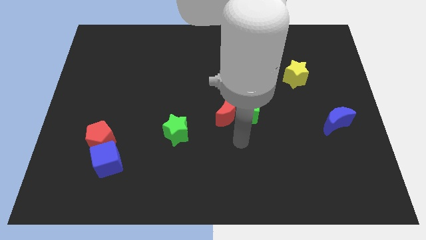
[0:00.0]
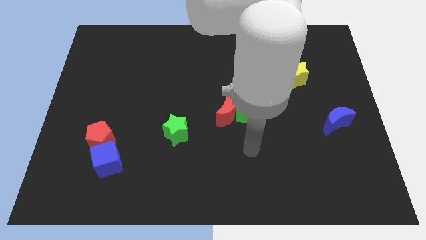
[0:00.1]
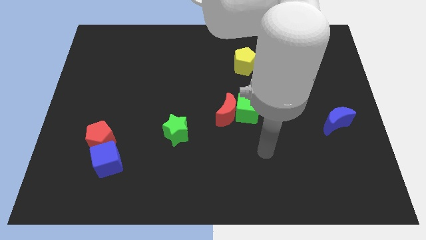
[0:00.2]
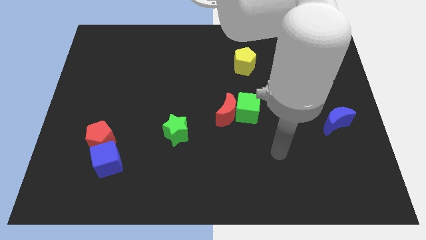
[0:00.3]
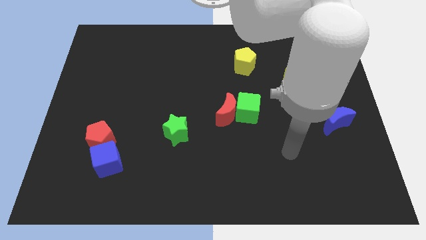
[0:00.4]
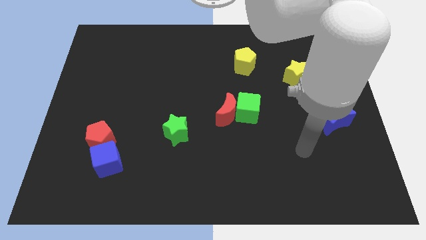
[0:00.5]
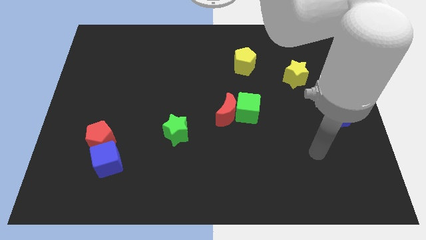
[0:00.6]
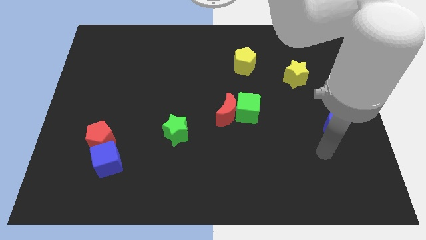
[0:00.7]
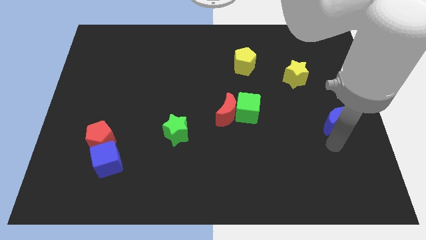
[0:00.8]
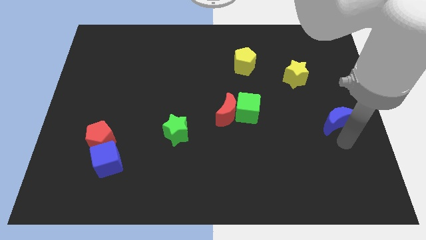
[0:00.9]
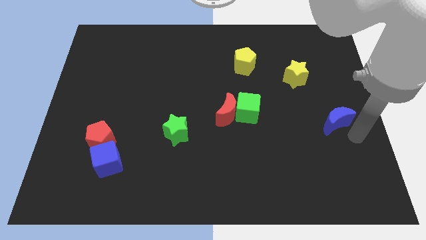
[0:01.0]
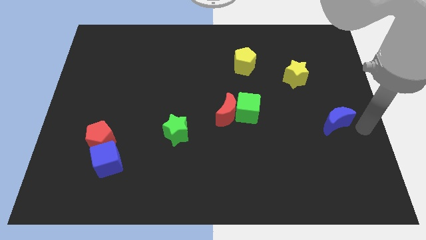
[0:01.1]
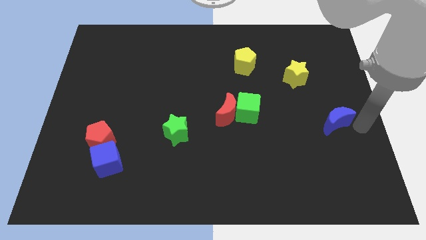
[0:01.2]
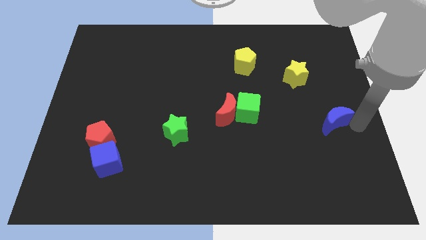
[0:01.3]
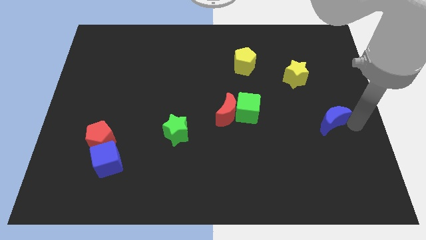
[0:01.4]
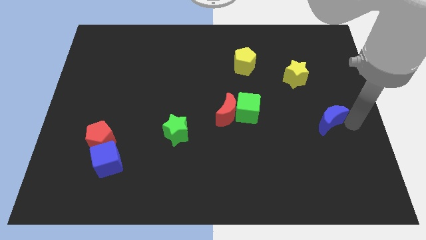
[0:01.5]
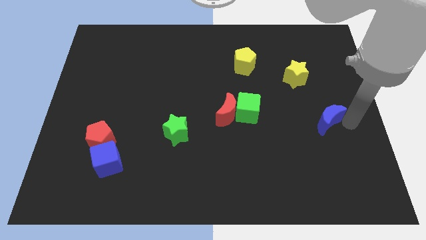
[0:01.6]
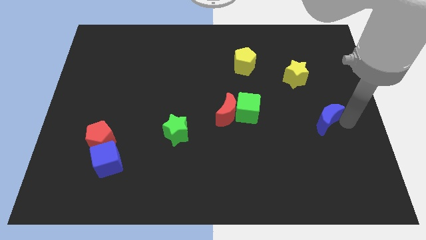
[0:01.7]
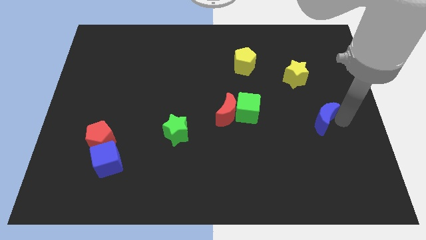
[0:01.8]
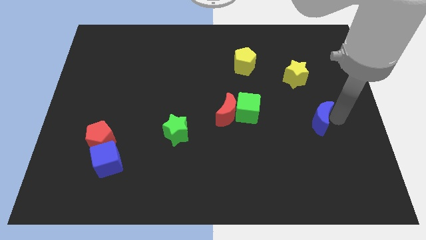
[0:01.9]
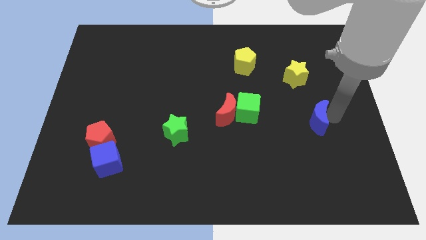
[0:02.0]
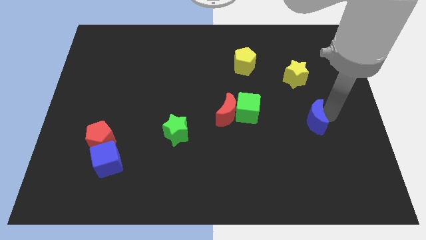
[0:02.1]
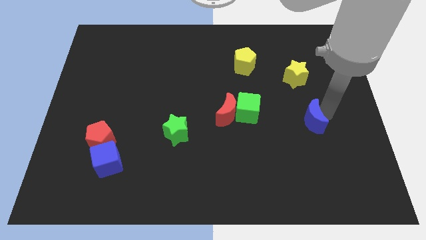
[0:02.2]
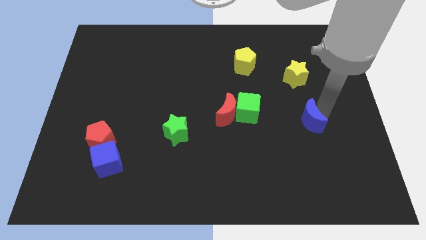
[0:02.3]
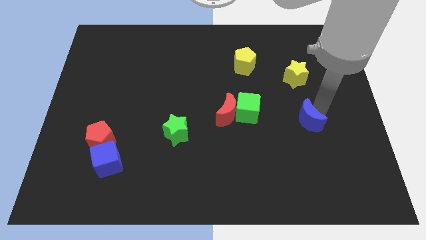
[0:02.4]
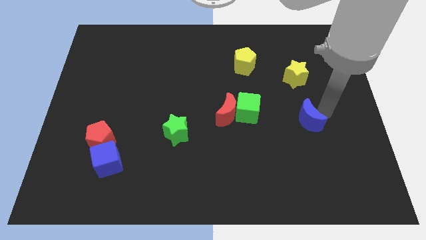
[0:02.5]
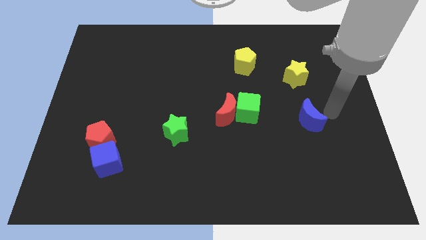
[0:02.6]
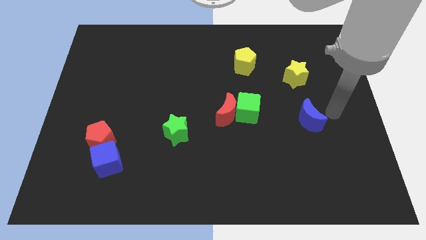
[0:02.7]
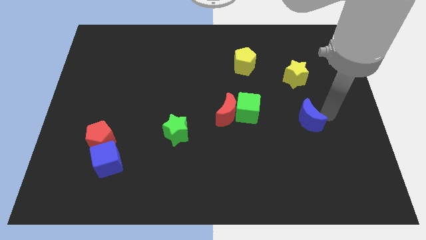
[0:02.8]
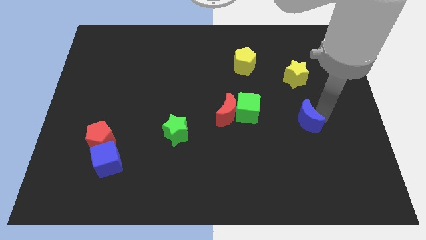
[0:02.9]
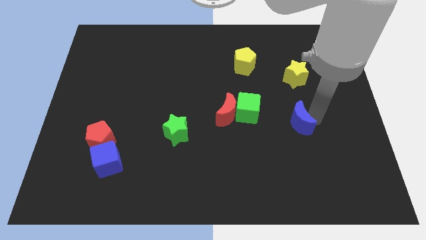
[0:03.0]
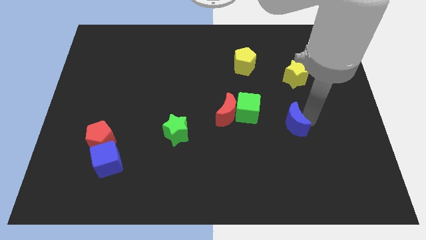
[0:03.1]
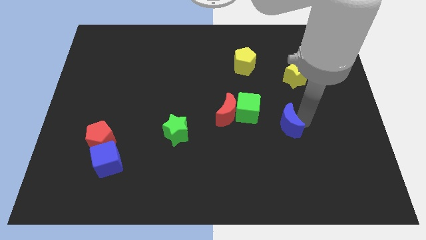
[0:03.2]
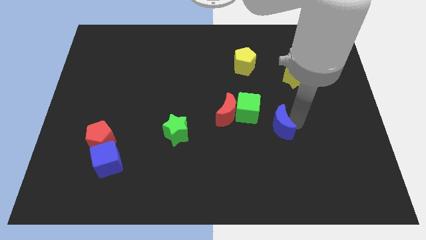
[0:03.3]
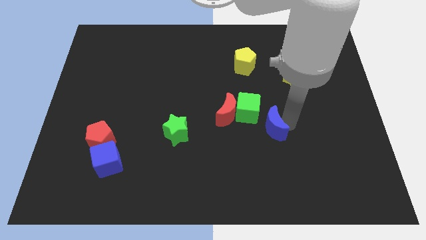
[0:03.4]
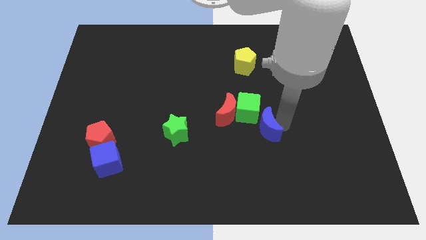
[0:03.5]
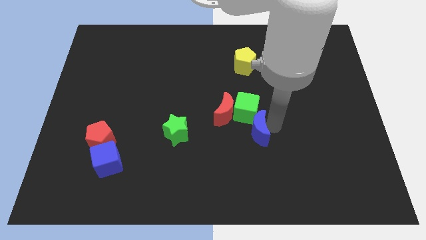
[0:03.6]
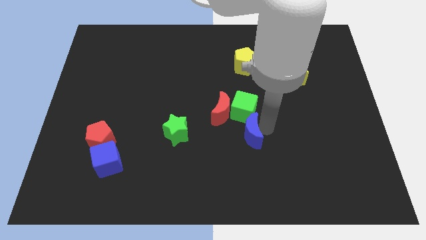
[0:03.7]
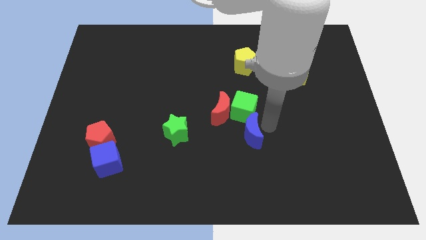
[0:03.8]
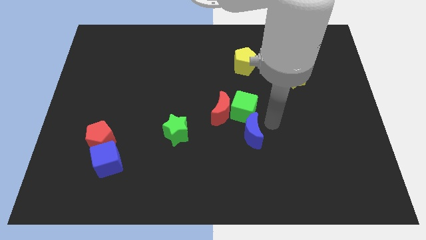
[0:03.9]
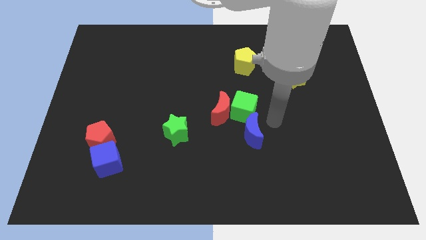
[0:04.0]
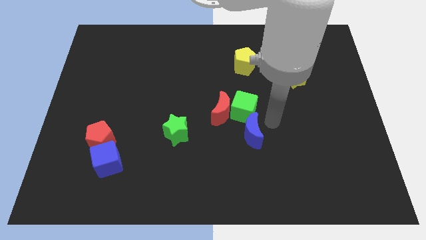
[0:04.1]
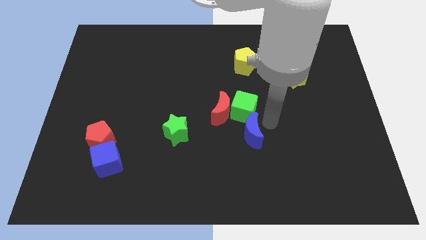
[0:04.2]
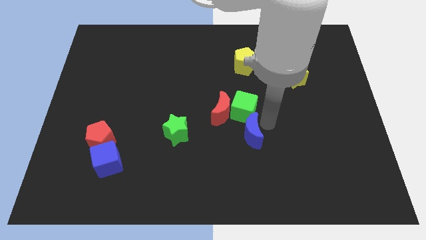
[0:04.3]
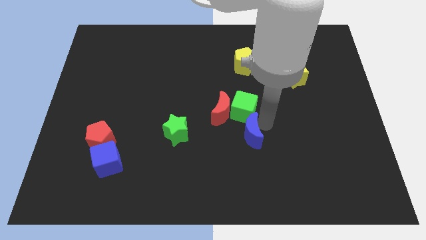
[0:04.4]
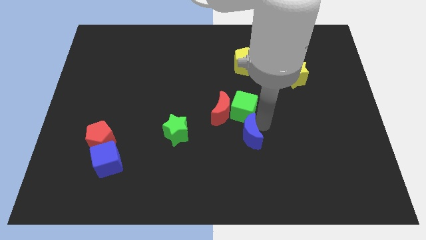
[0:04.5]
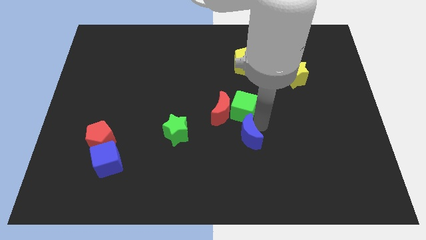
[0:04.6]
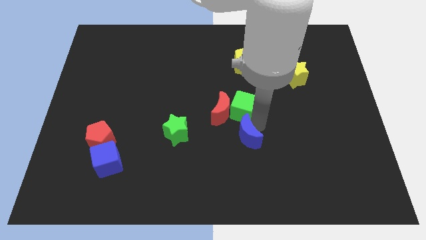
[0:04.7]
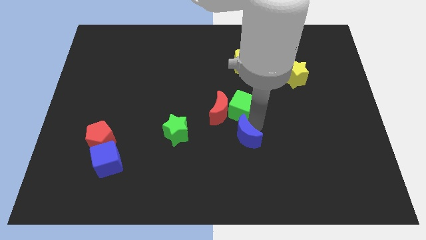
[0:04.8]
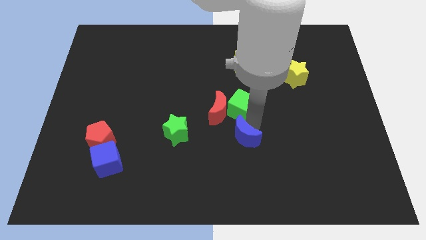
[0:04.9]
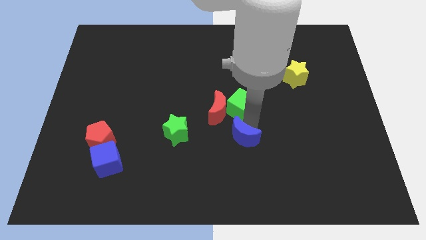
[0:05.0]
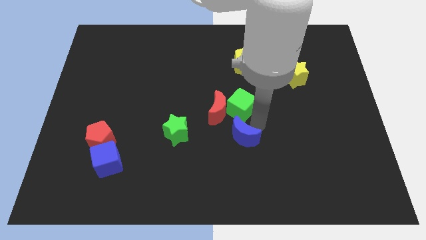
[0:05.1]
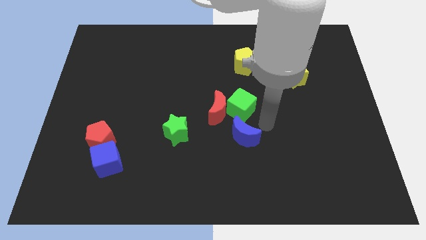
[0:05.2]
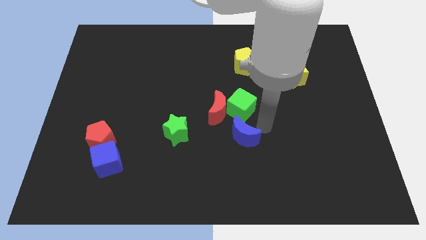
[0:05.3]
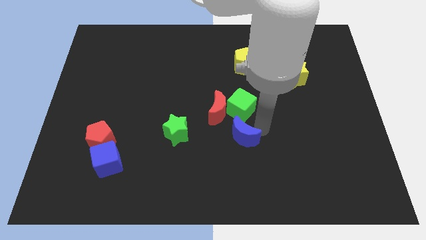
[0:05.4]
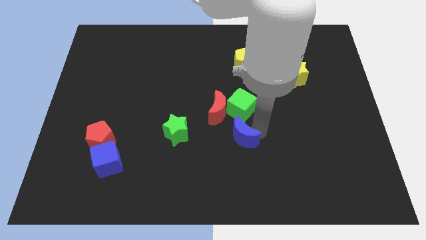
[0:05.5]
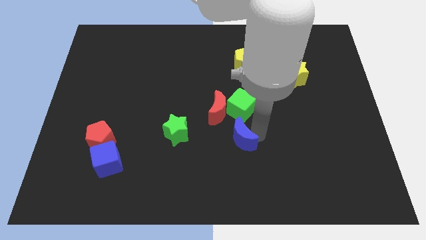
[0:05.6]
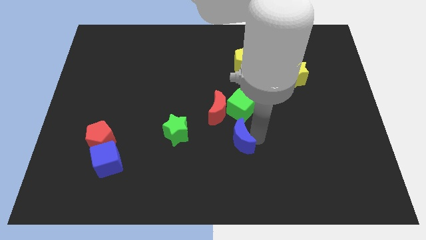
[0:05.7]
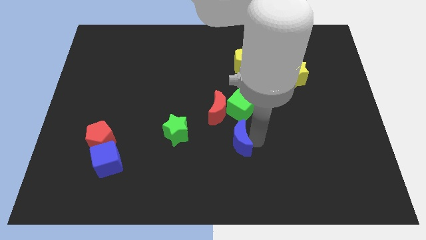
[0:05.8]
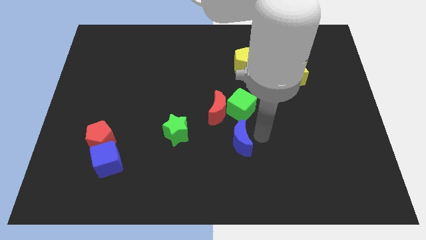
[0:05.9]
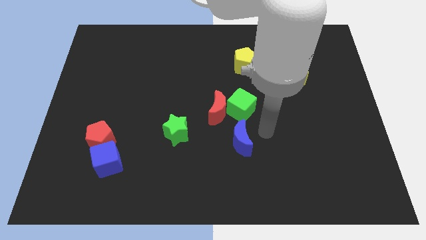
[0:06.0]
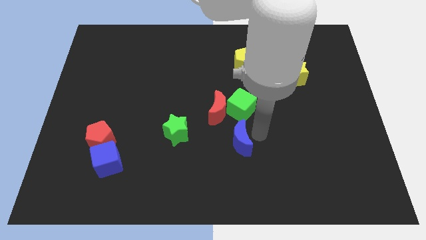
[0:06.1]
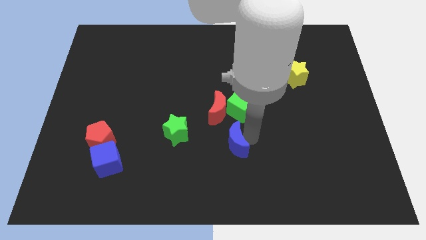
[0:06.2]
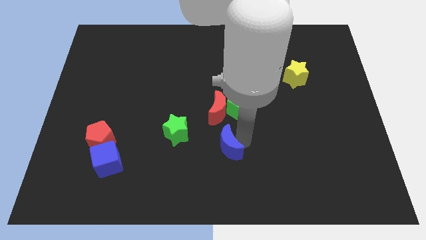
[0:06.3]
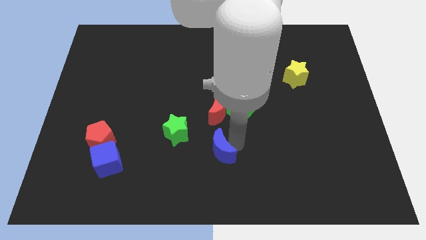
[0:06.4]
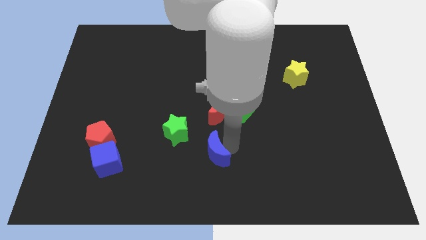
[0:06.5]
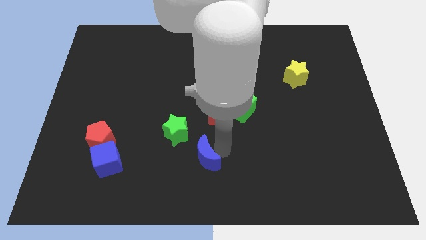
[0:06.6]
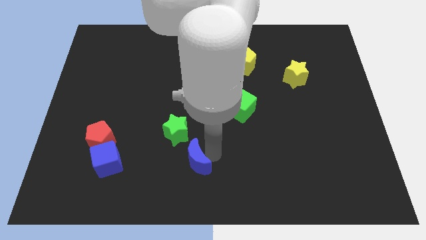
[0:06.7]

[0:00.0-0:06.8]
slide the blue moon below the green star

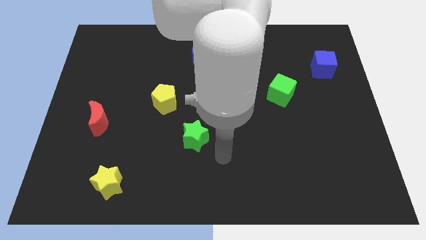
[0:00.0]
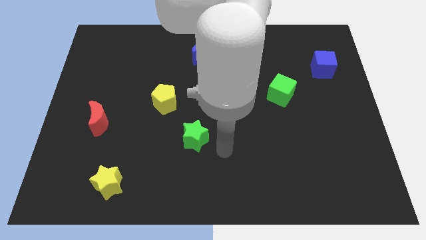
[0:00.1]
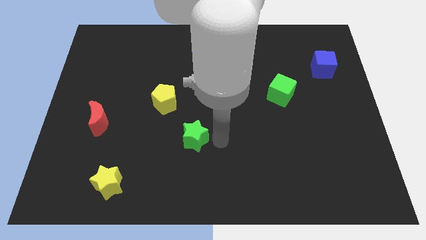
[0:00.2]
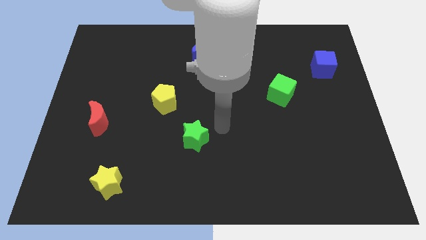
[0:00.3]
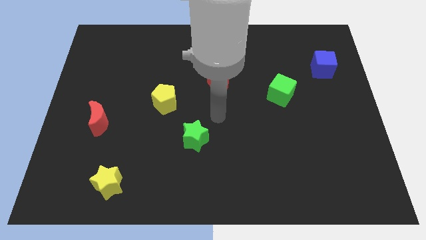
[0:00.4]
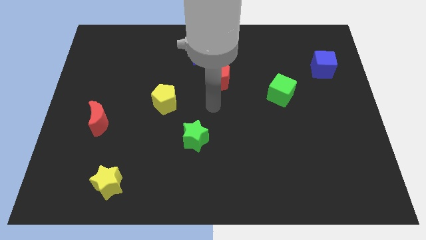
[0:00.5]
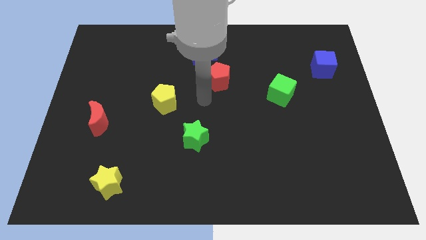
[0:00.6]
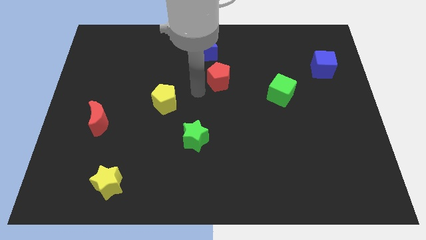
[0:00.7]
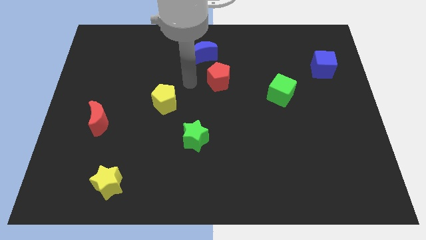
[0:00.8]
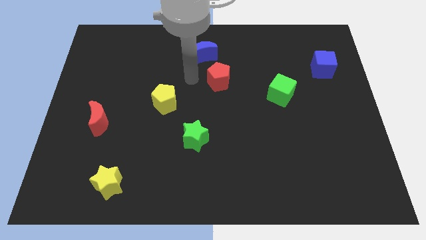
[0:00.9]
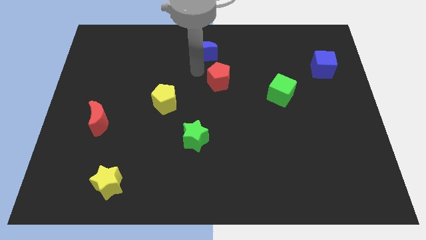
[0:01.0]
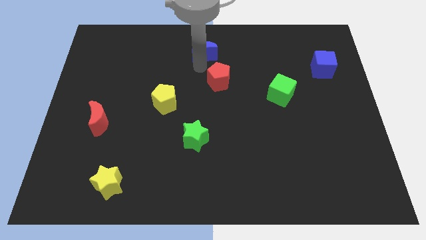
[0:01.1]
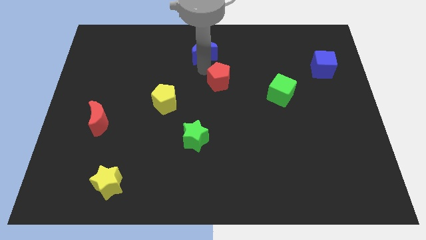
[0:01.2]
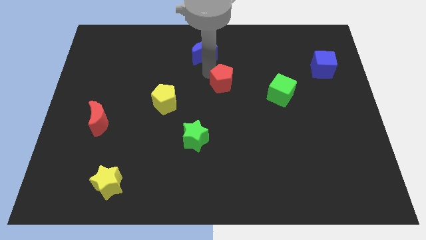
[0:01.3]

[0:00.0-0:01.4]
put the red pentagon to the left side of the green cube
